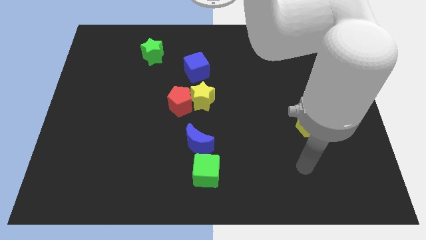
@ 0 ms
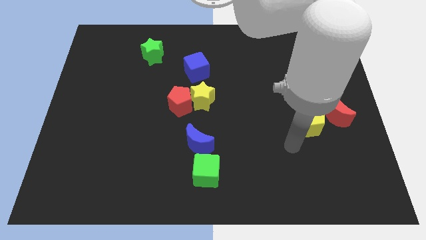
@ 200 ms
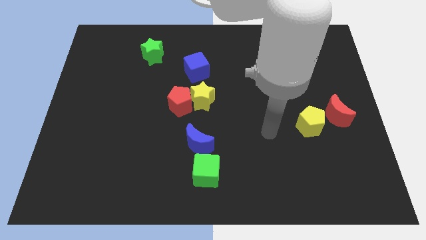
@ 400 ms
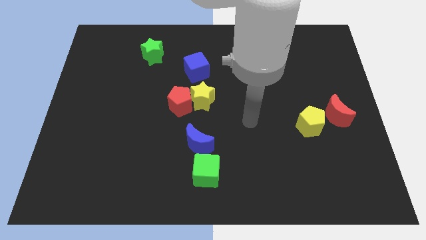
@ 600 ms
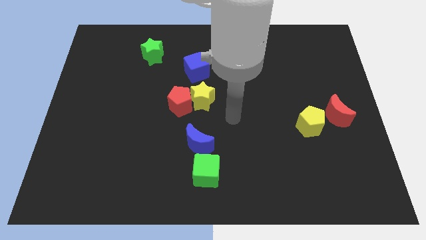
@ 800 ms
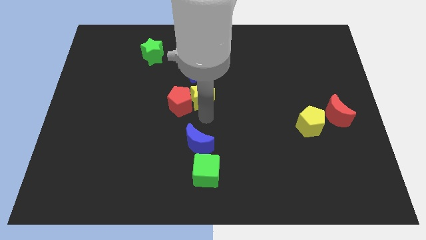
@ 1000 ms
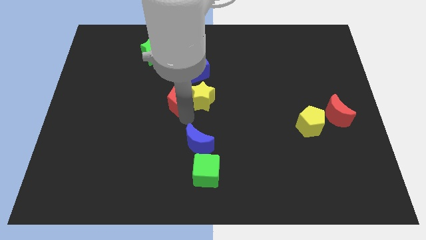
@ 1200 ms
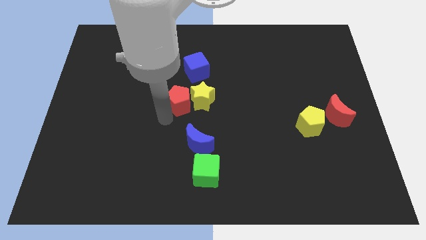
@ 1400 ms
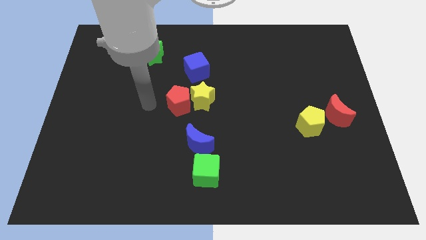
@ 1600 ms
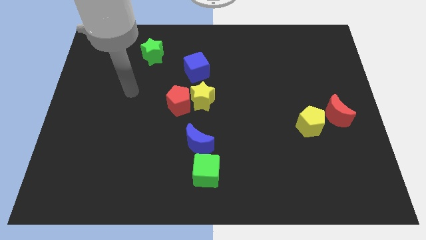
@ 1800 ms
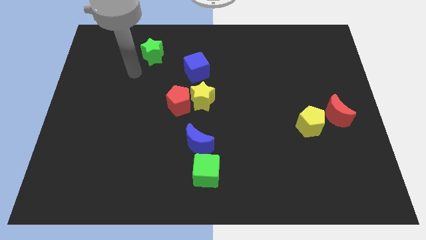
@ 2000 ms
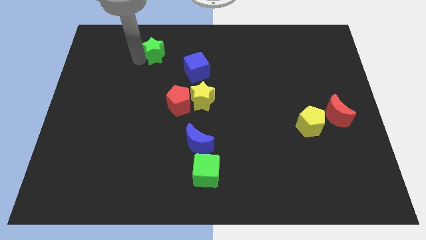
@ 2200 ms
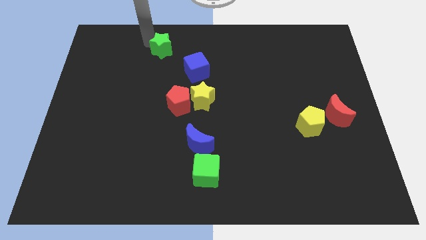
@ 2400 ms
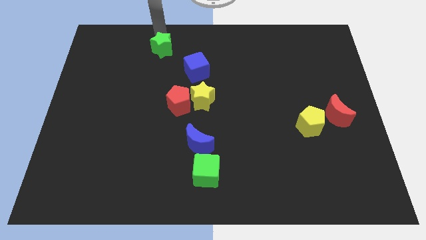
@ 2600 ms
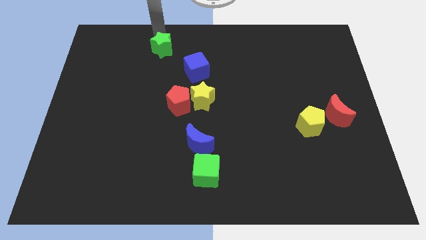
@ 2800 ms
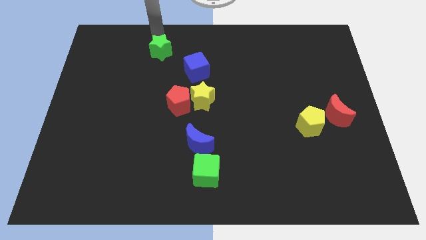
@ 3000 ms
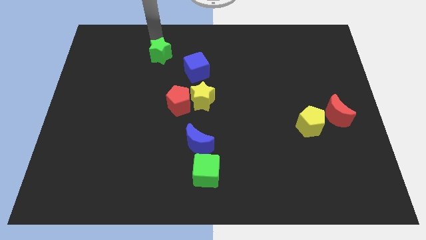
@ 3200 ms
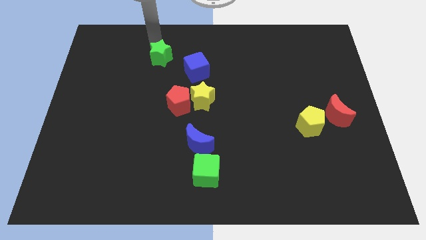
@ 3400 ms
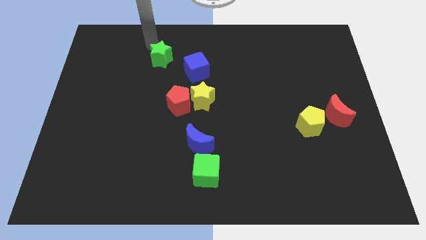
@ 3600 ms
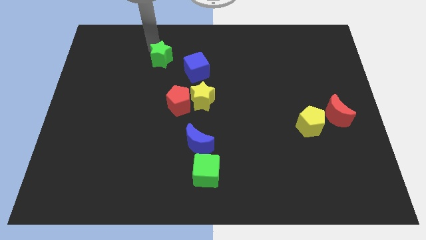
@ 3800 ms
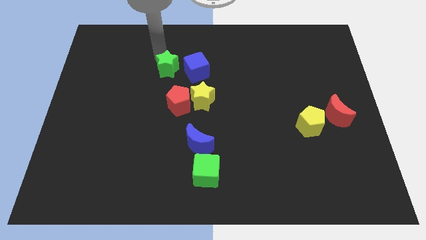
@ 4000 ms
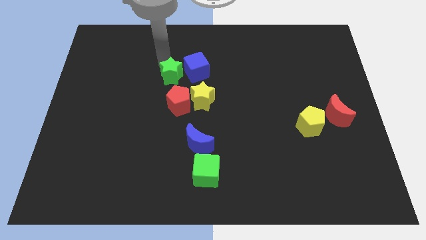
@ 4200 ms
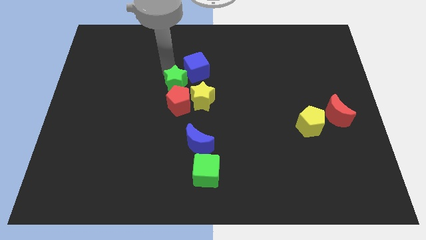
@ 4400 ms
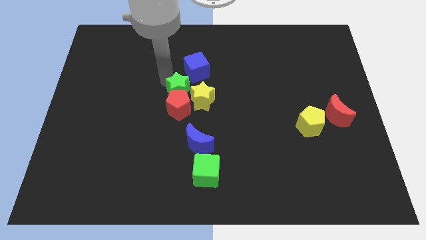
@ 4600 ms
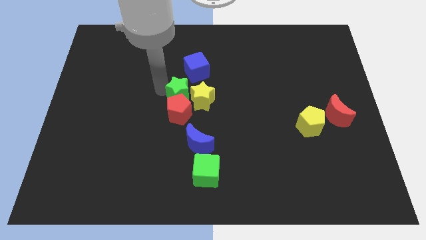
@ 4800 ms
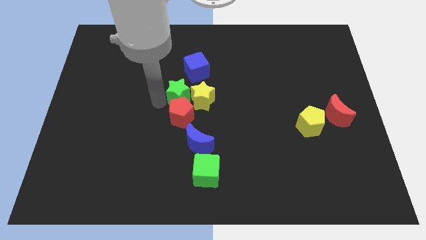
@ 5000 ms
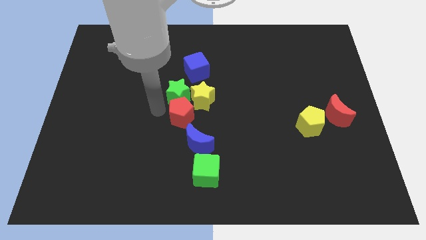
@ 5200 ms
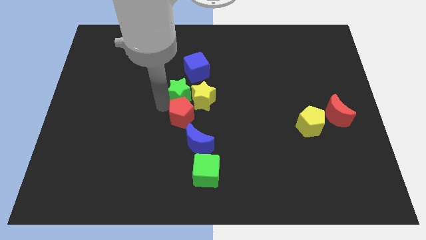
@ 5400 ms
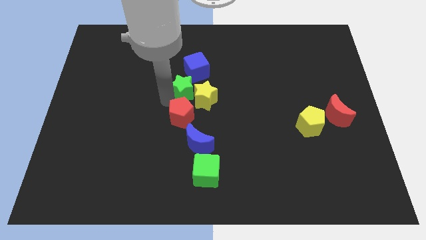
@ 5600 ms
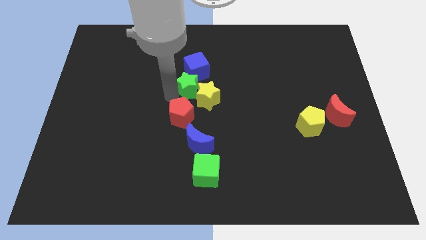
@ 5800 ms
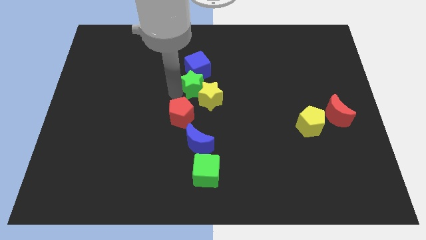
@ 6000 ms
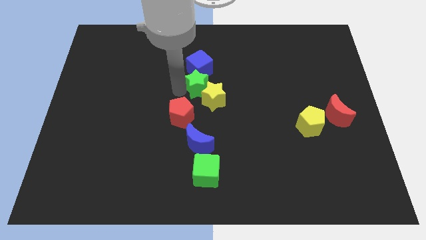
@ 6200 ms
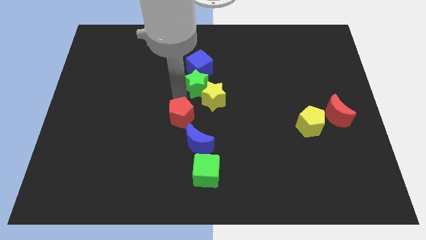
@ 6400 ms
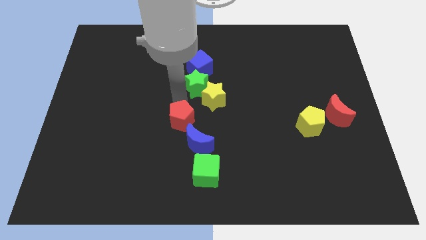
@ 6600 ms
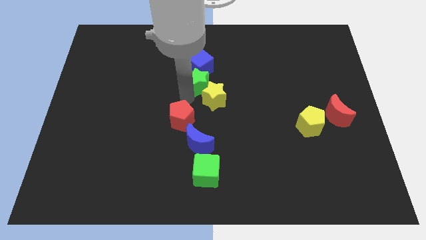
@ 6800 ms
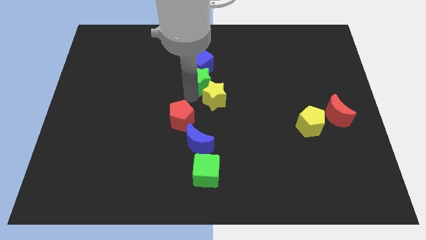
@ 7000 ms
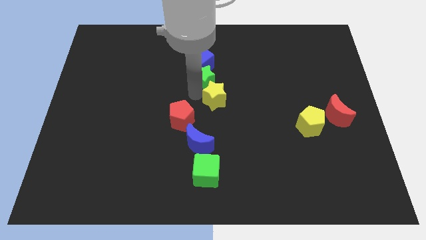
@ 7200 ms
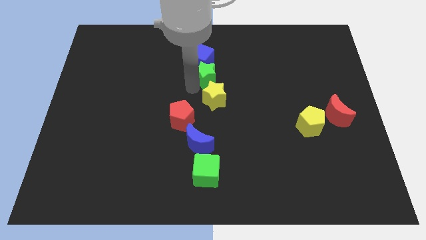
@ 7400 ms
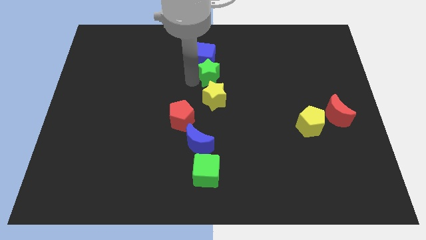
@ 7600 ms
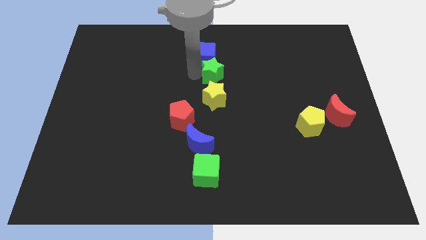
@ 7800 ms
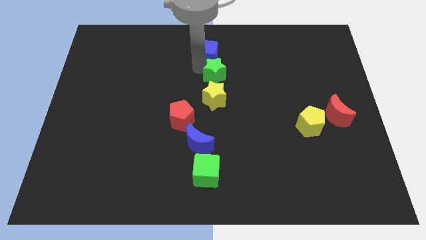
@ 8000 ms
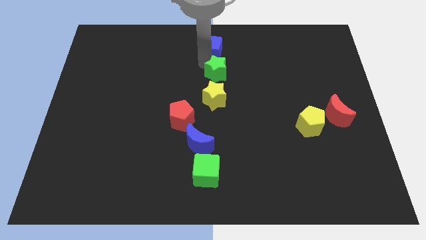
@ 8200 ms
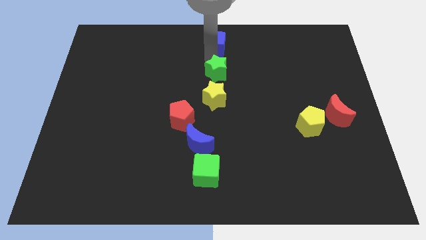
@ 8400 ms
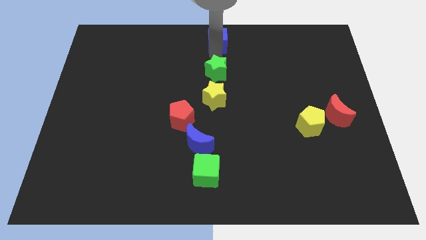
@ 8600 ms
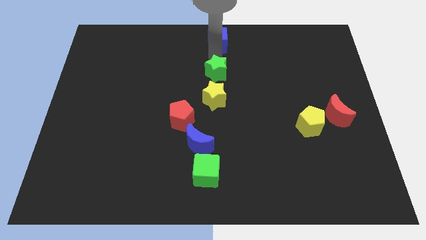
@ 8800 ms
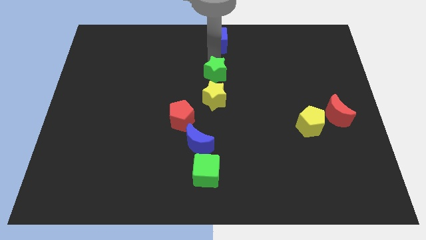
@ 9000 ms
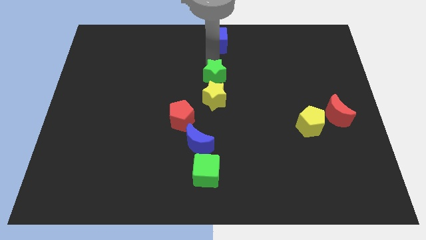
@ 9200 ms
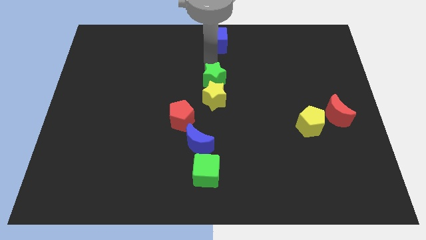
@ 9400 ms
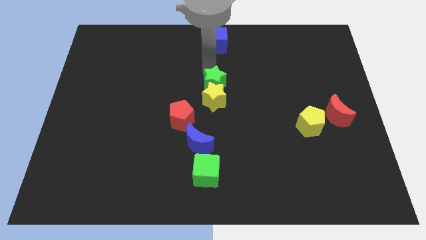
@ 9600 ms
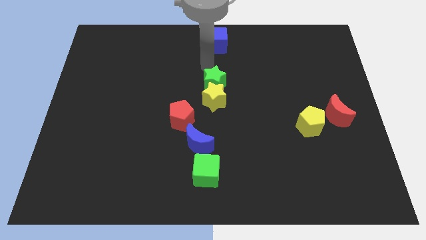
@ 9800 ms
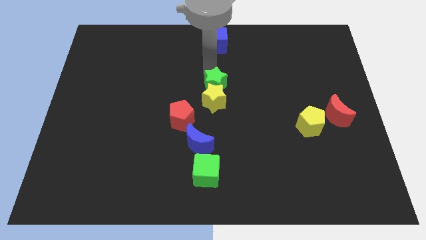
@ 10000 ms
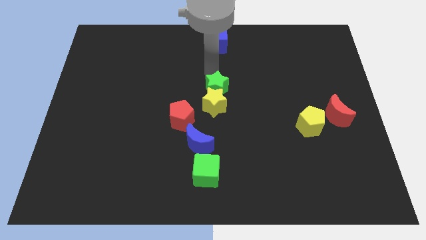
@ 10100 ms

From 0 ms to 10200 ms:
slide the green star diagonally downwards and right

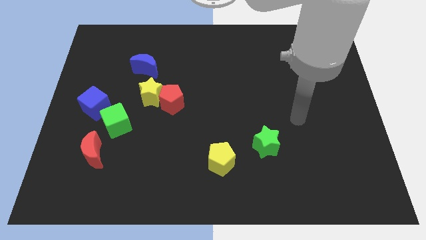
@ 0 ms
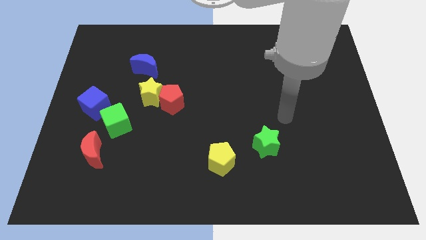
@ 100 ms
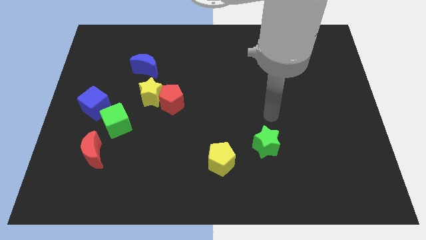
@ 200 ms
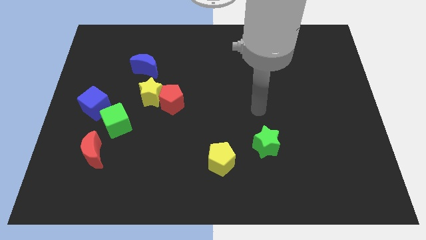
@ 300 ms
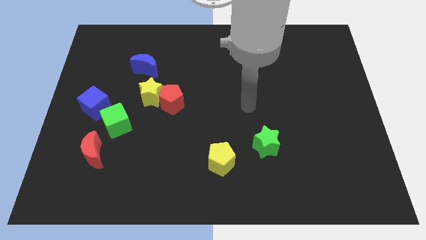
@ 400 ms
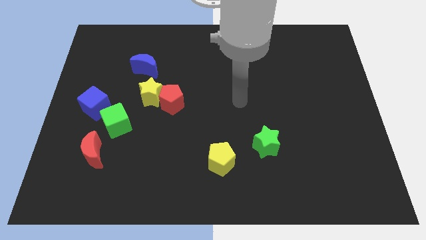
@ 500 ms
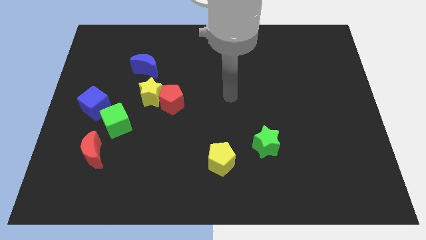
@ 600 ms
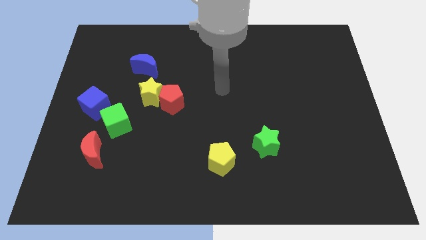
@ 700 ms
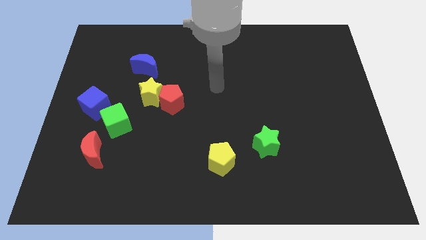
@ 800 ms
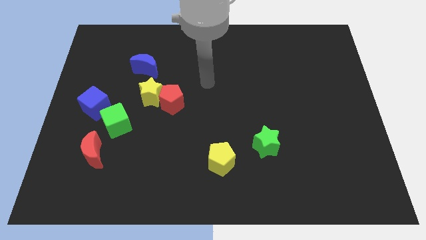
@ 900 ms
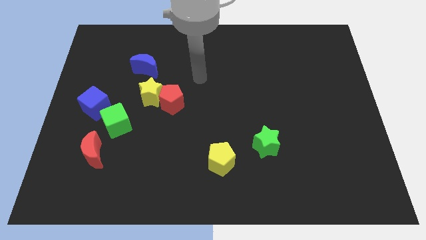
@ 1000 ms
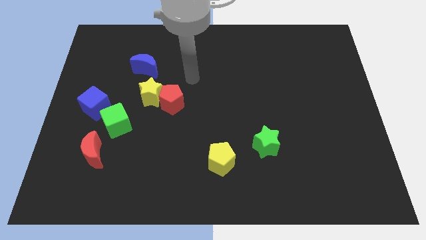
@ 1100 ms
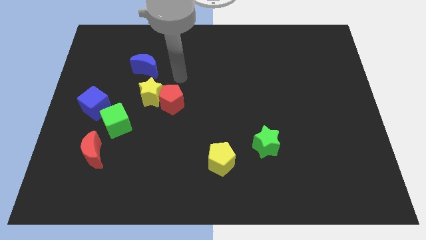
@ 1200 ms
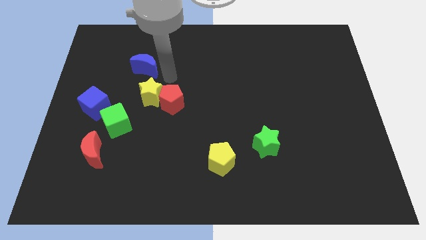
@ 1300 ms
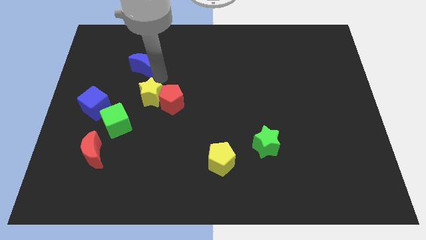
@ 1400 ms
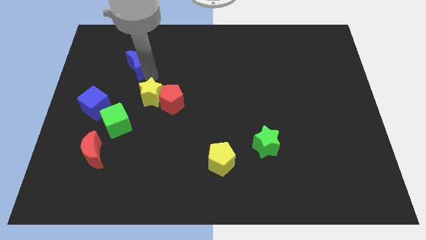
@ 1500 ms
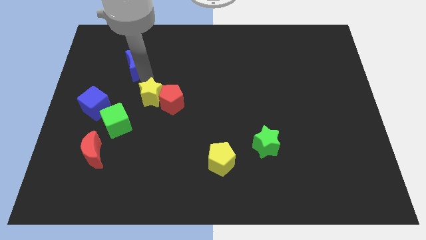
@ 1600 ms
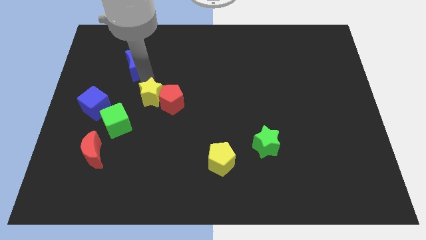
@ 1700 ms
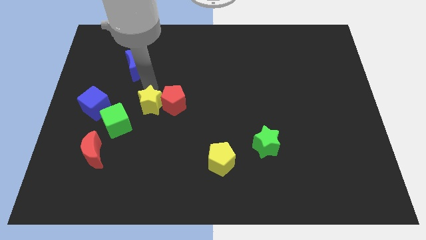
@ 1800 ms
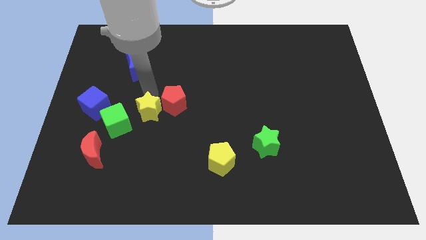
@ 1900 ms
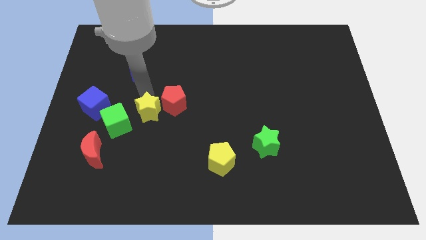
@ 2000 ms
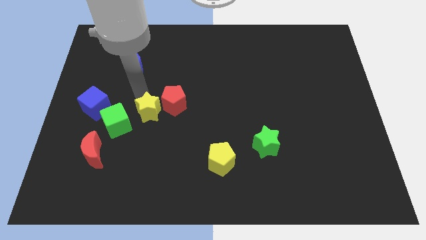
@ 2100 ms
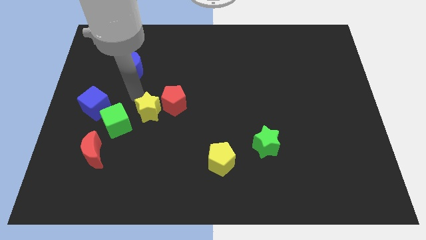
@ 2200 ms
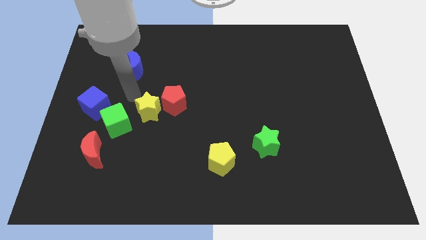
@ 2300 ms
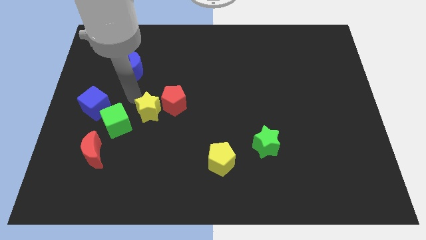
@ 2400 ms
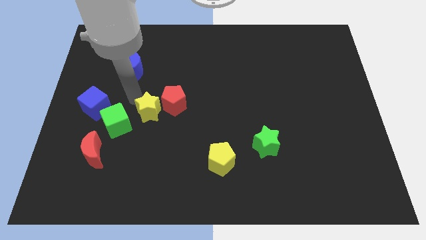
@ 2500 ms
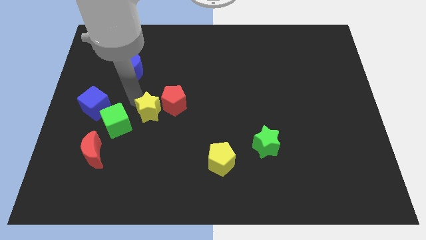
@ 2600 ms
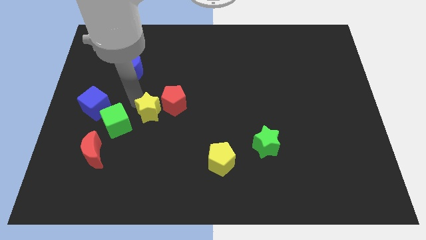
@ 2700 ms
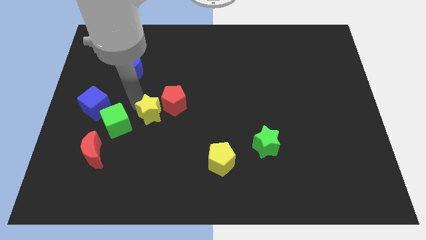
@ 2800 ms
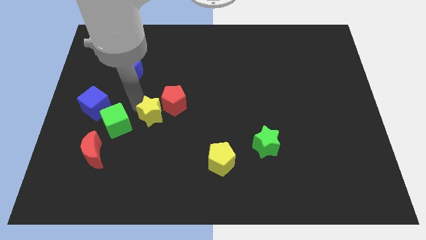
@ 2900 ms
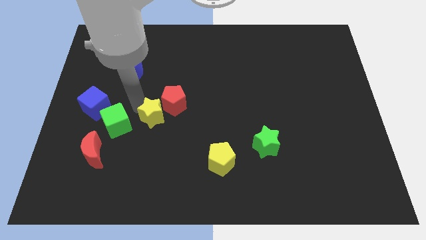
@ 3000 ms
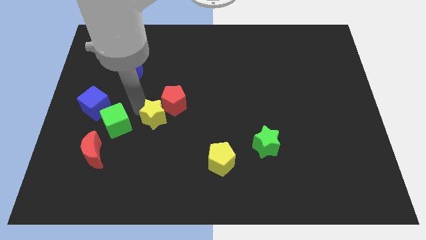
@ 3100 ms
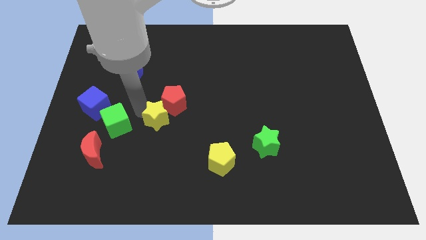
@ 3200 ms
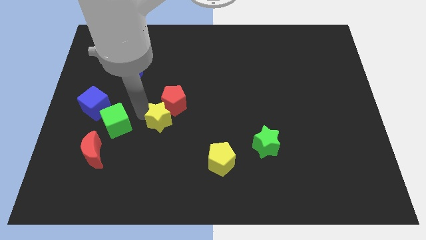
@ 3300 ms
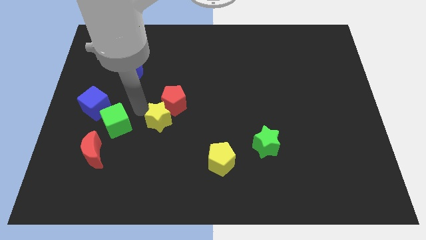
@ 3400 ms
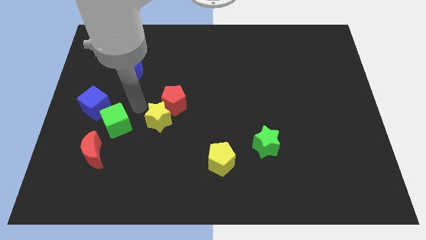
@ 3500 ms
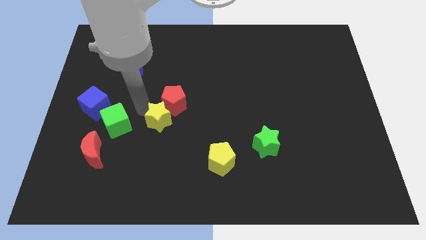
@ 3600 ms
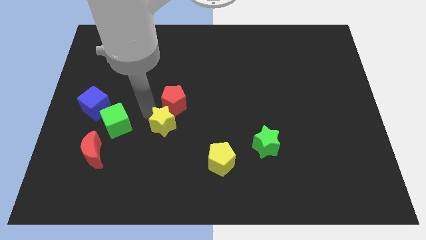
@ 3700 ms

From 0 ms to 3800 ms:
push the yellow star somewhat down and to the right diagonally
